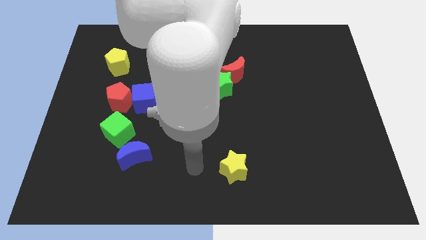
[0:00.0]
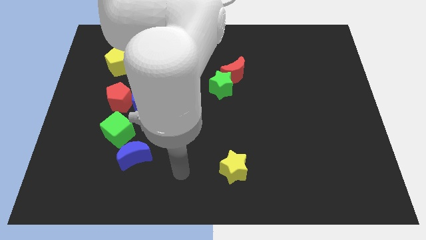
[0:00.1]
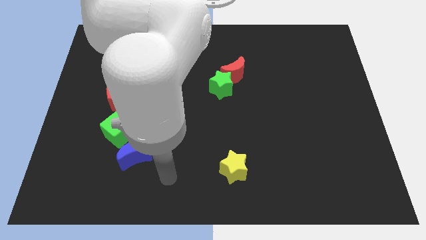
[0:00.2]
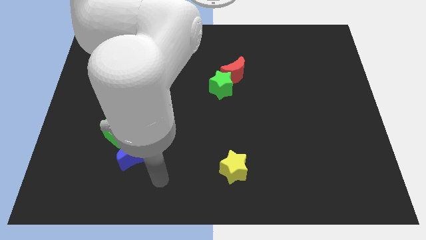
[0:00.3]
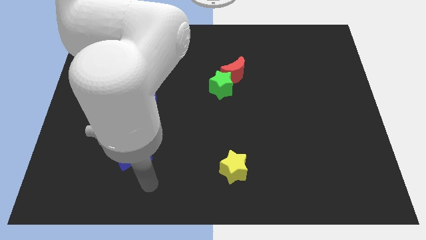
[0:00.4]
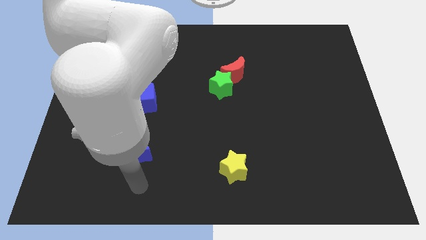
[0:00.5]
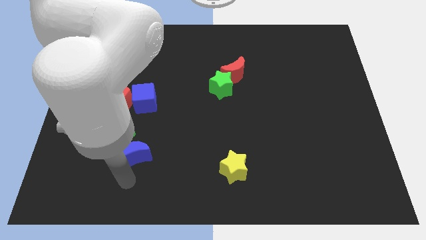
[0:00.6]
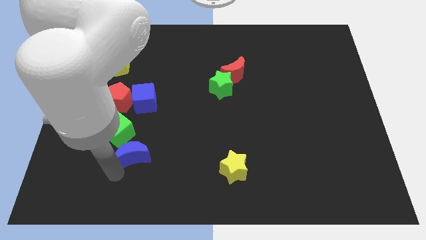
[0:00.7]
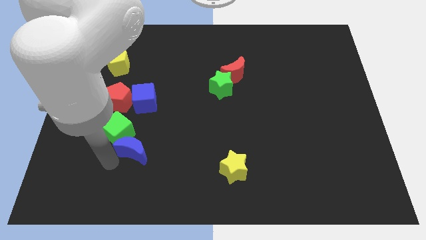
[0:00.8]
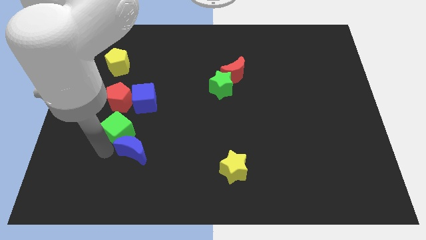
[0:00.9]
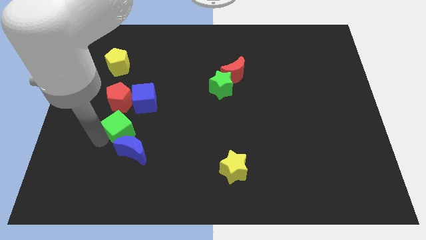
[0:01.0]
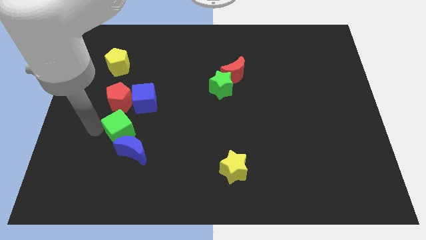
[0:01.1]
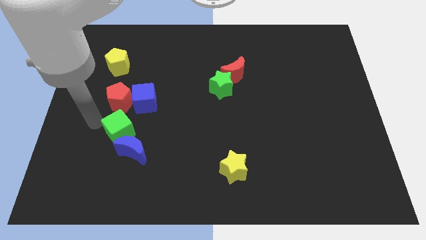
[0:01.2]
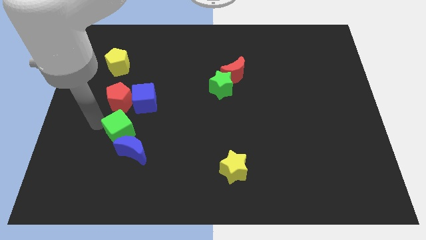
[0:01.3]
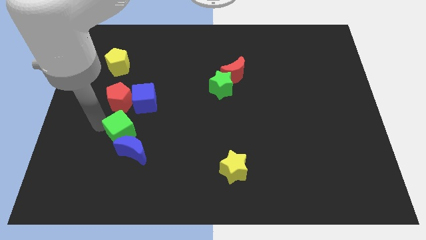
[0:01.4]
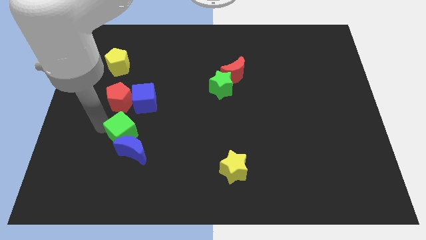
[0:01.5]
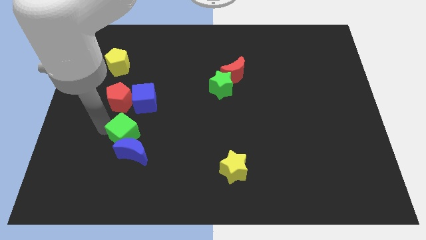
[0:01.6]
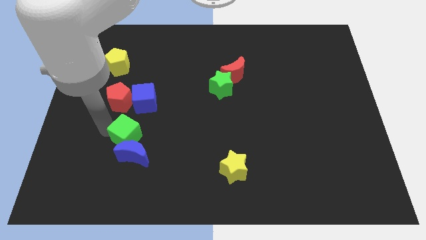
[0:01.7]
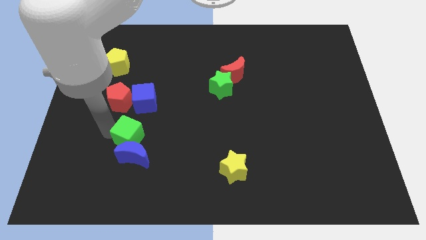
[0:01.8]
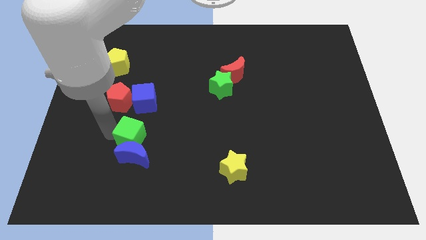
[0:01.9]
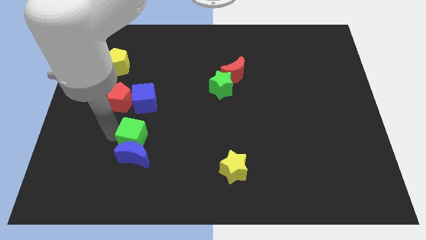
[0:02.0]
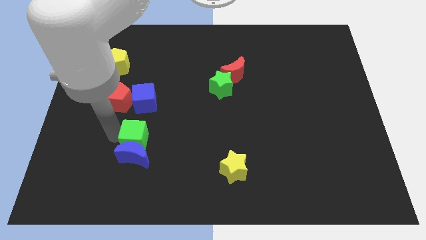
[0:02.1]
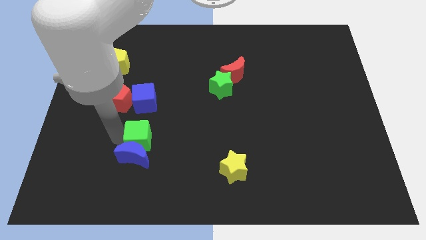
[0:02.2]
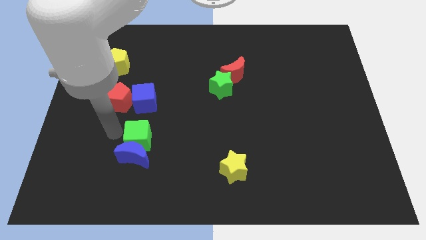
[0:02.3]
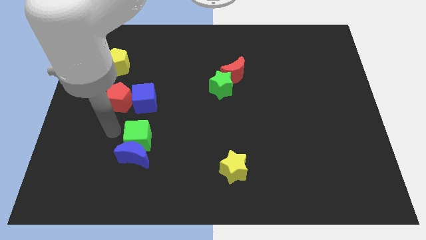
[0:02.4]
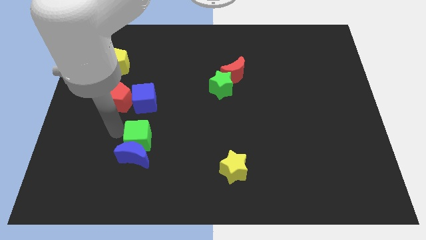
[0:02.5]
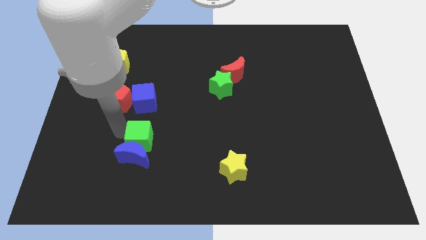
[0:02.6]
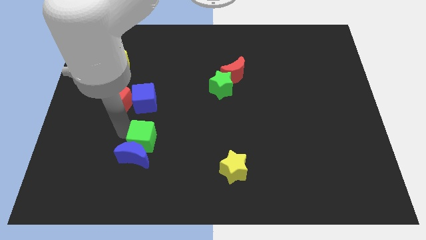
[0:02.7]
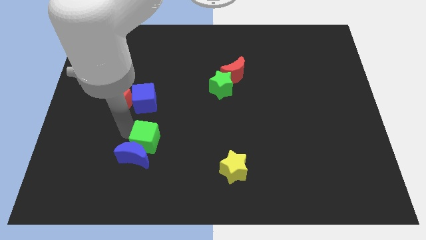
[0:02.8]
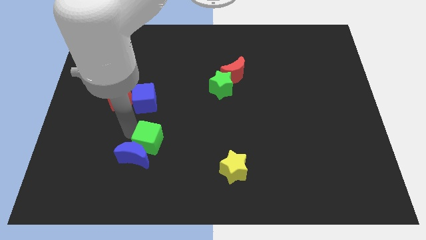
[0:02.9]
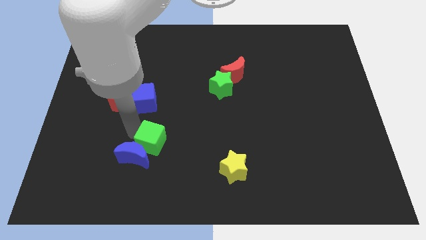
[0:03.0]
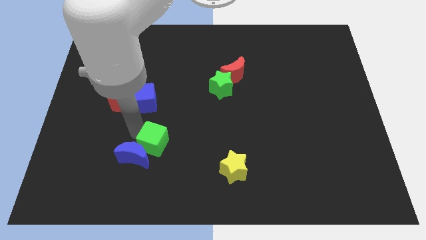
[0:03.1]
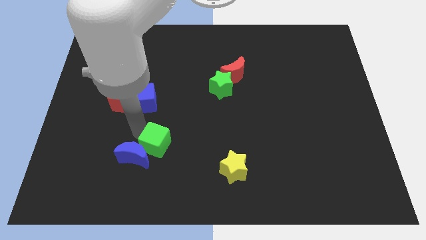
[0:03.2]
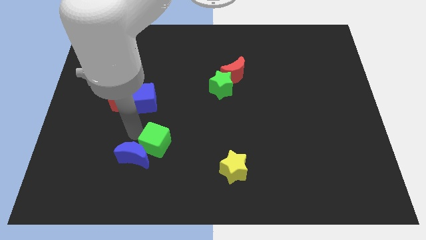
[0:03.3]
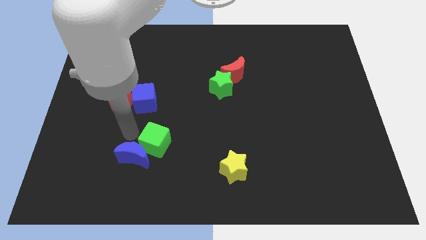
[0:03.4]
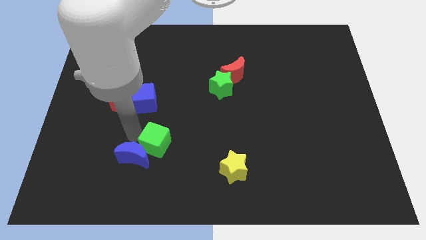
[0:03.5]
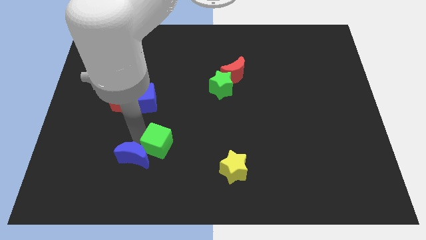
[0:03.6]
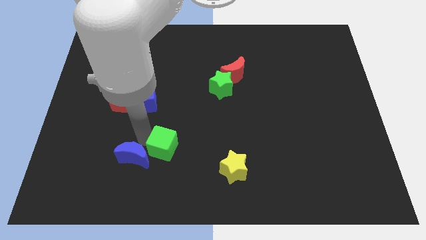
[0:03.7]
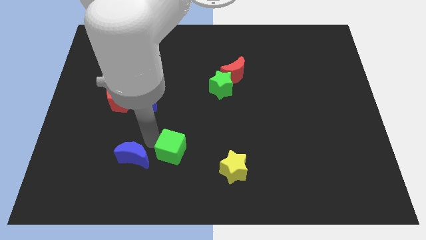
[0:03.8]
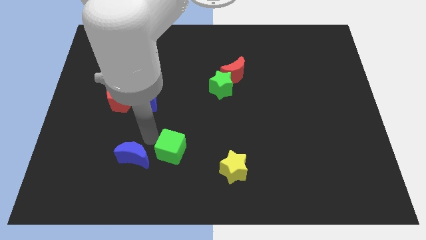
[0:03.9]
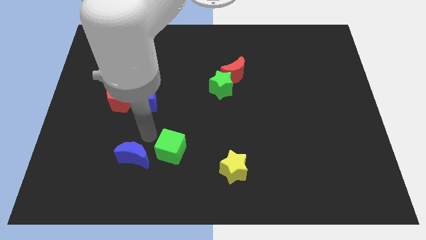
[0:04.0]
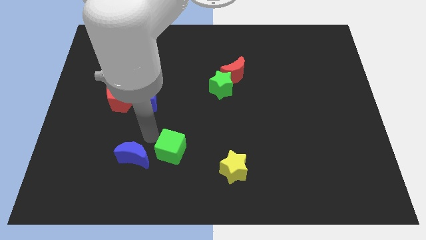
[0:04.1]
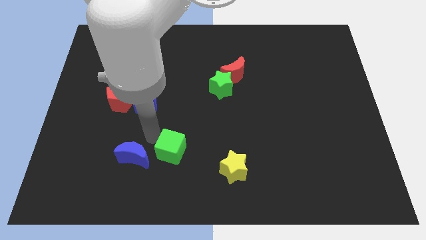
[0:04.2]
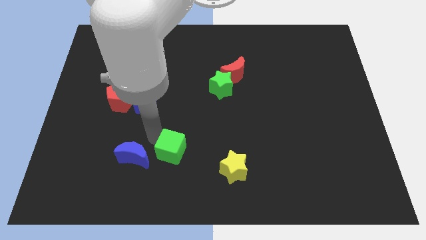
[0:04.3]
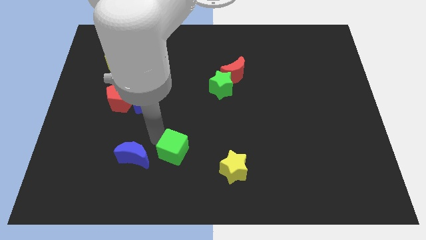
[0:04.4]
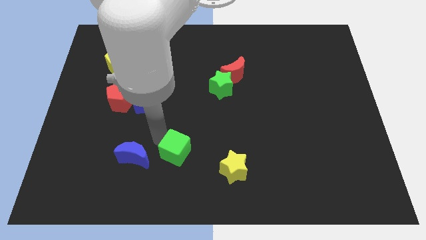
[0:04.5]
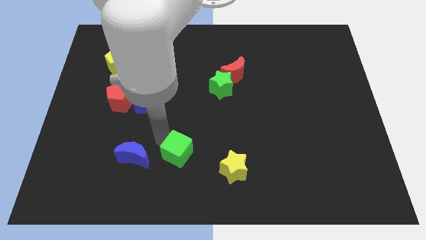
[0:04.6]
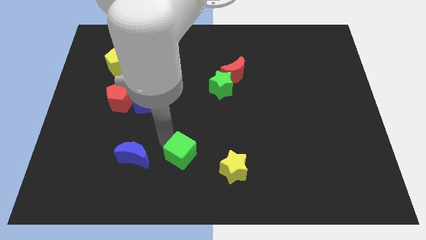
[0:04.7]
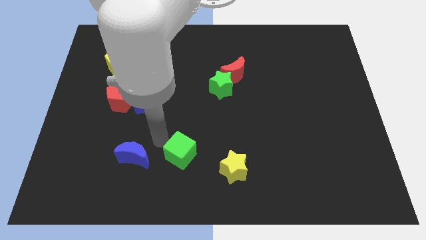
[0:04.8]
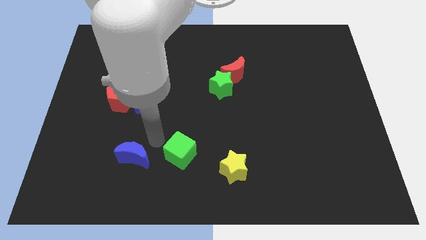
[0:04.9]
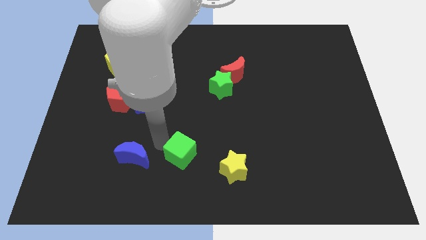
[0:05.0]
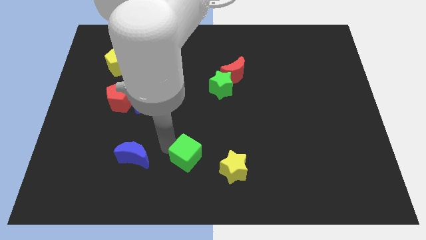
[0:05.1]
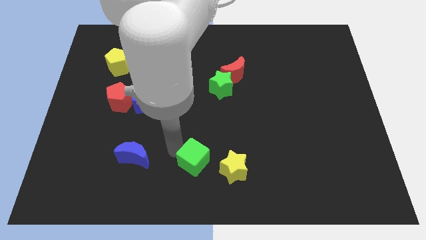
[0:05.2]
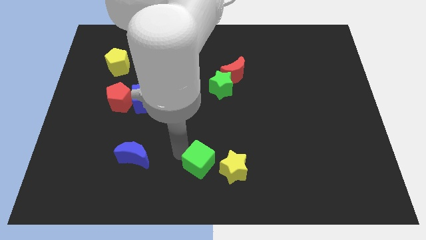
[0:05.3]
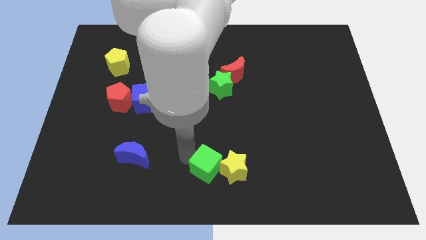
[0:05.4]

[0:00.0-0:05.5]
put the green cube close to the yellow star

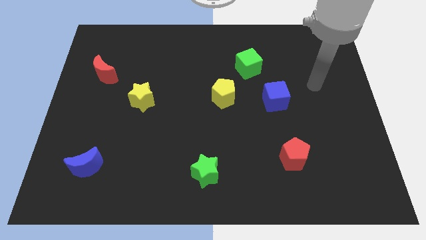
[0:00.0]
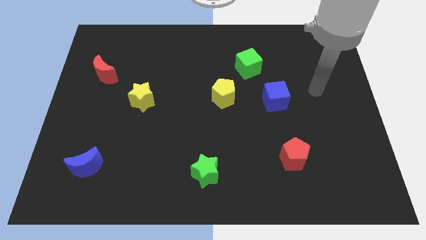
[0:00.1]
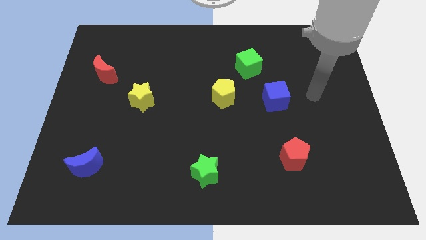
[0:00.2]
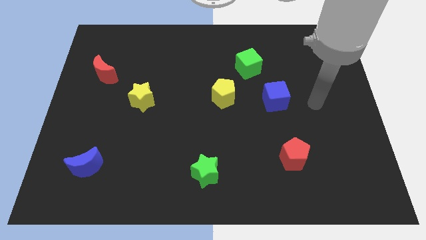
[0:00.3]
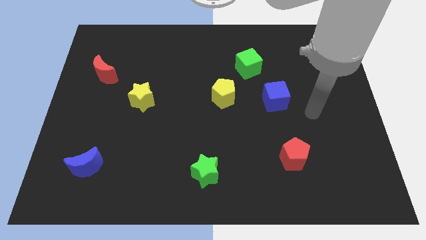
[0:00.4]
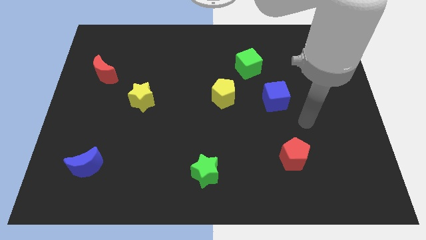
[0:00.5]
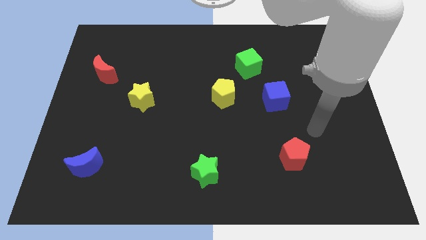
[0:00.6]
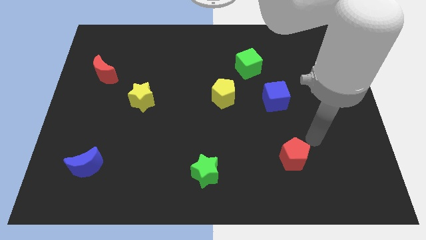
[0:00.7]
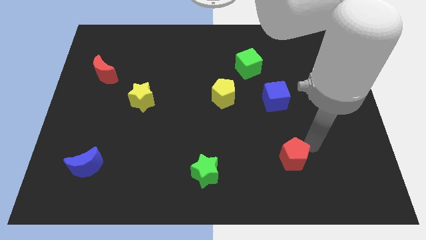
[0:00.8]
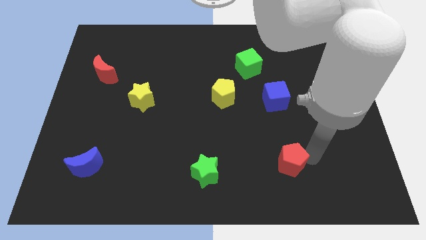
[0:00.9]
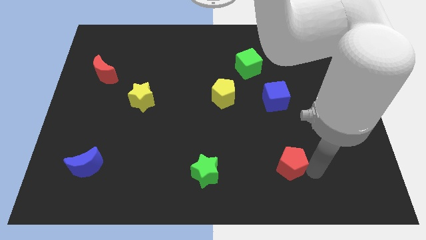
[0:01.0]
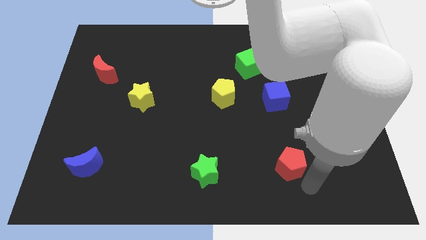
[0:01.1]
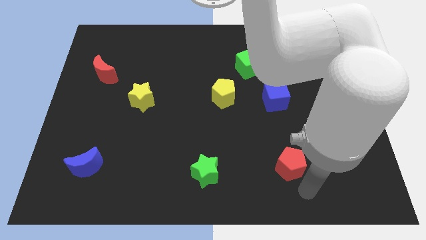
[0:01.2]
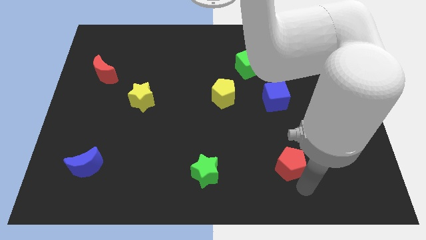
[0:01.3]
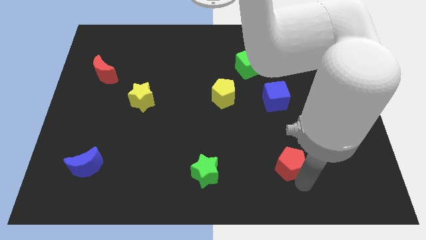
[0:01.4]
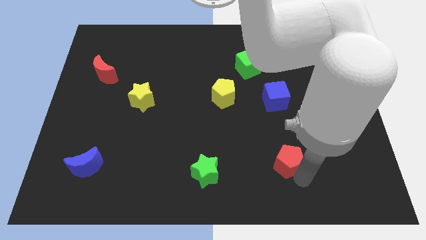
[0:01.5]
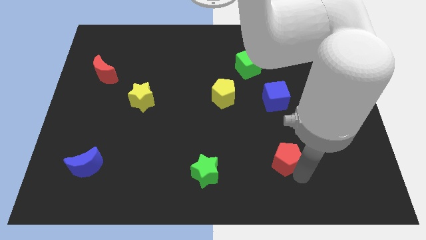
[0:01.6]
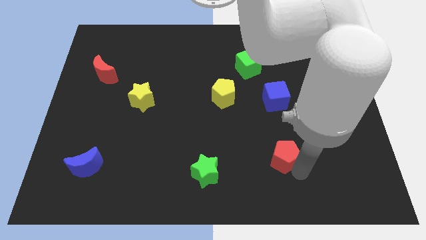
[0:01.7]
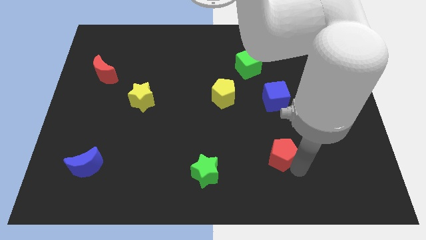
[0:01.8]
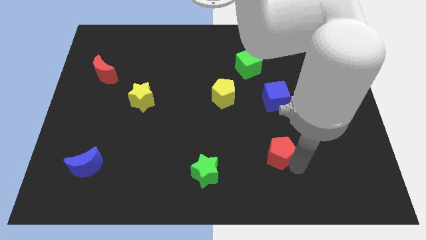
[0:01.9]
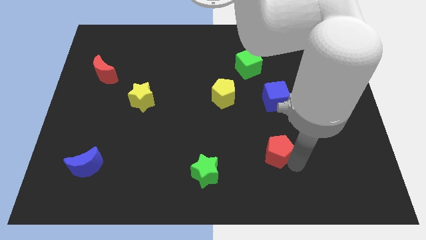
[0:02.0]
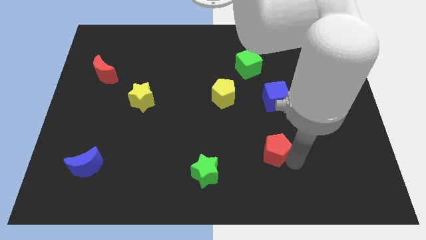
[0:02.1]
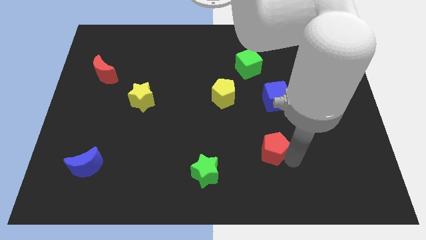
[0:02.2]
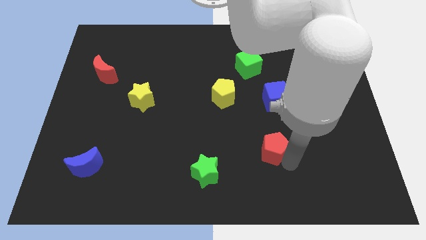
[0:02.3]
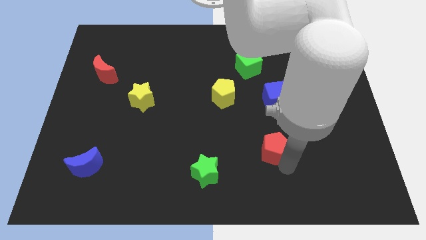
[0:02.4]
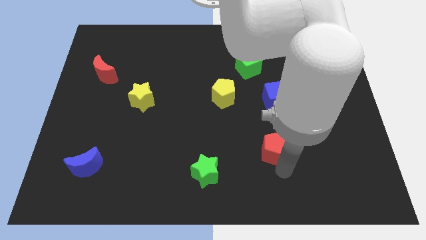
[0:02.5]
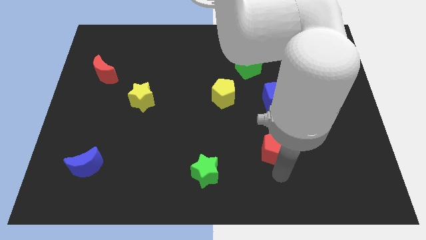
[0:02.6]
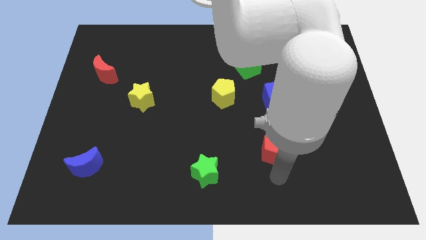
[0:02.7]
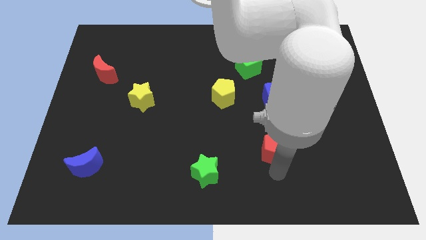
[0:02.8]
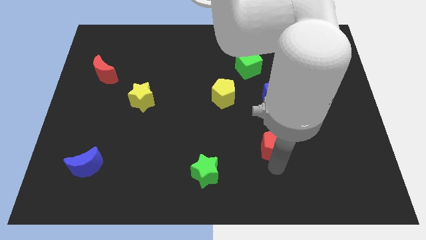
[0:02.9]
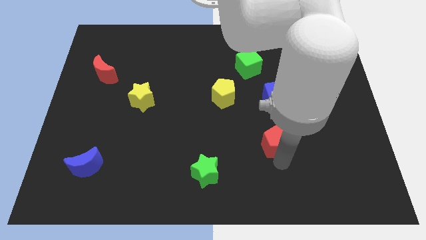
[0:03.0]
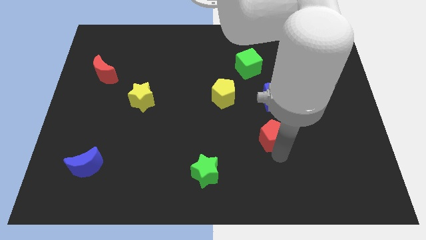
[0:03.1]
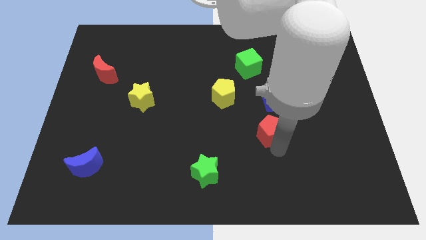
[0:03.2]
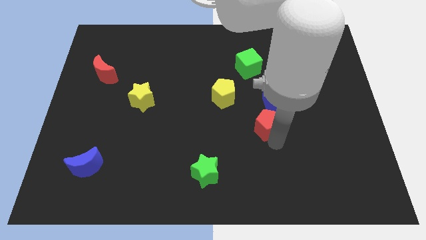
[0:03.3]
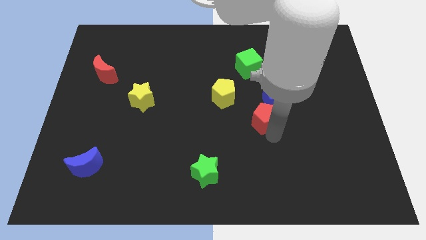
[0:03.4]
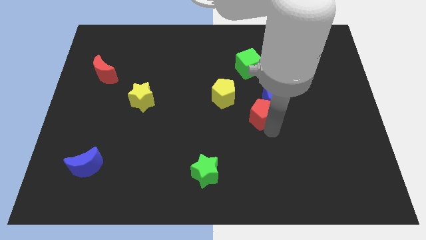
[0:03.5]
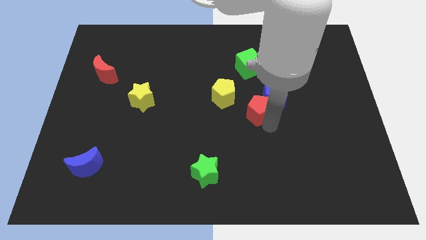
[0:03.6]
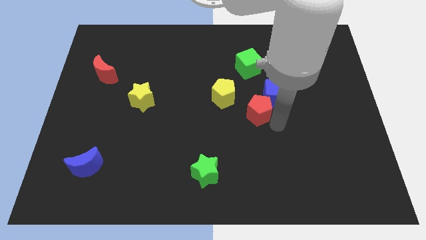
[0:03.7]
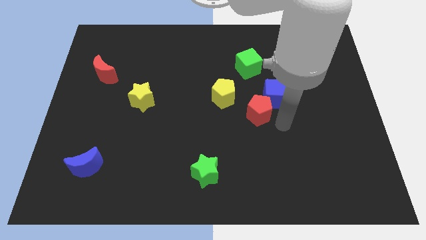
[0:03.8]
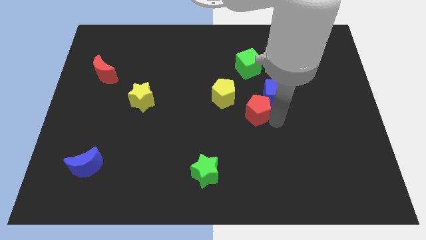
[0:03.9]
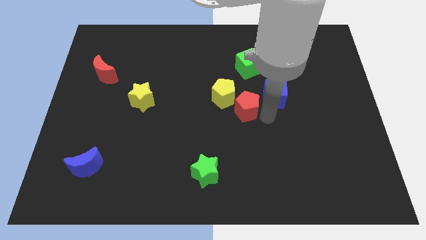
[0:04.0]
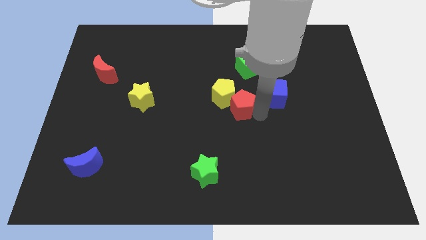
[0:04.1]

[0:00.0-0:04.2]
push the red pentagon to the yellow pentagon
